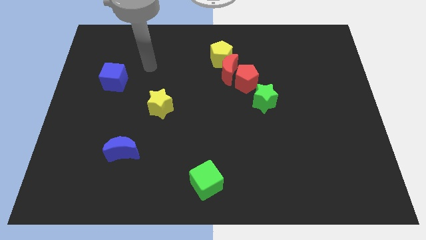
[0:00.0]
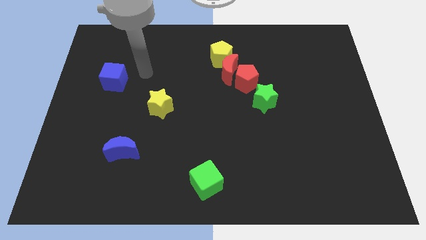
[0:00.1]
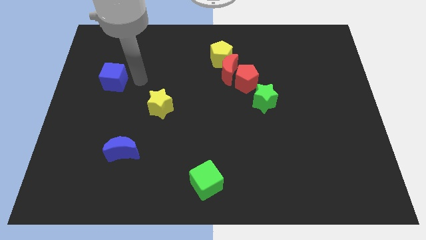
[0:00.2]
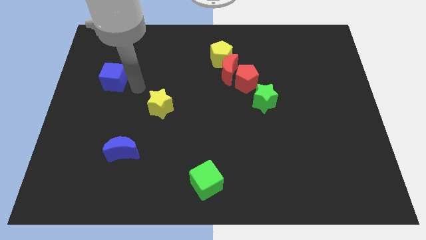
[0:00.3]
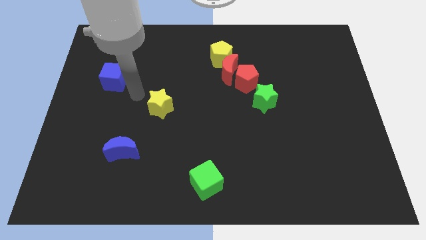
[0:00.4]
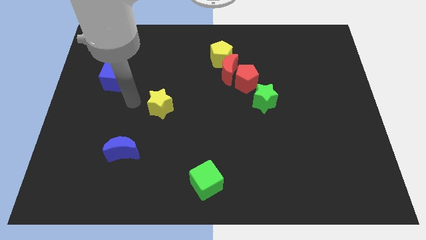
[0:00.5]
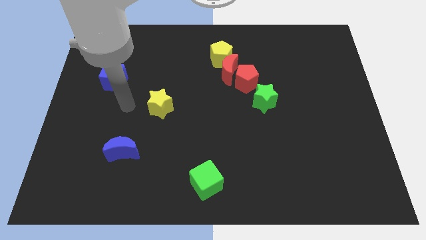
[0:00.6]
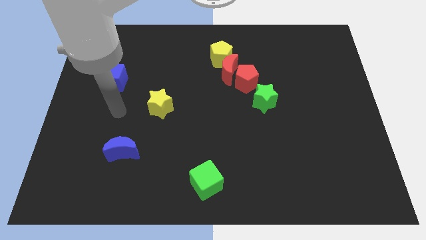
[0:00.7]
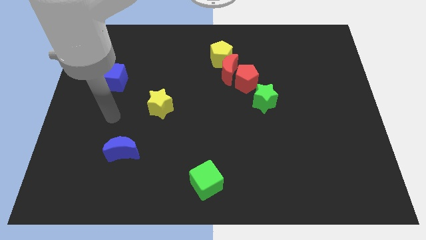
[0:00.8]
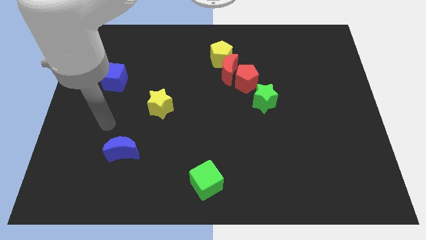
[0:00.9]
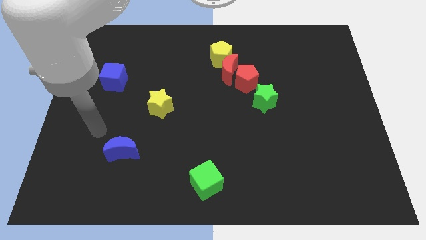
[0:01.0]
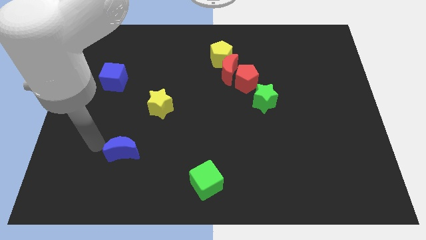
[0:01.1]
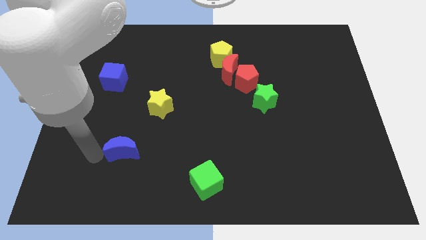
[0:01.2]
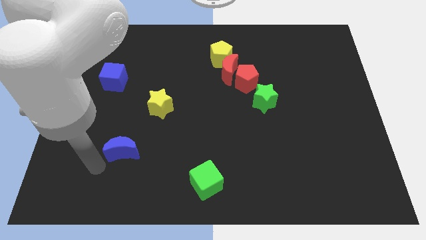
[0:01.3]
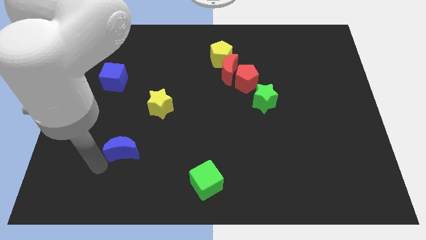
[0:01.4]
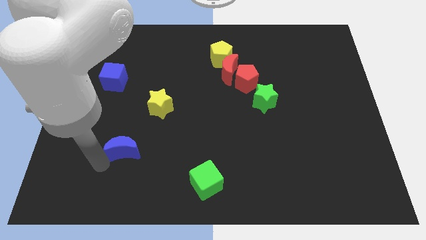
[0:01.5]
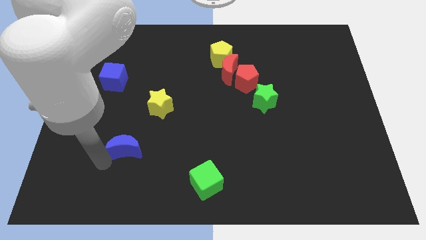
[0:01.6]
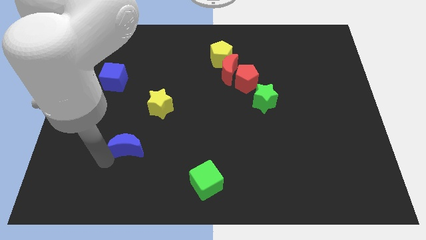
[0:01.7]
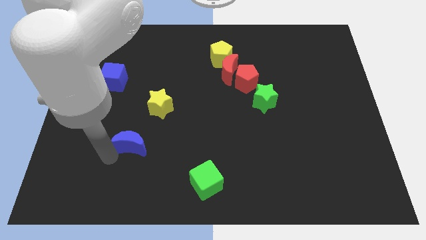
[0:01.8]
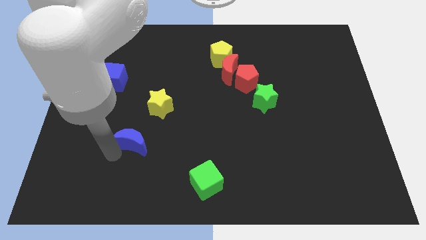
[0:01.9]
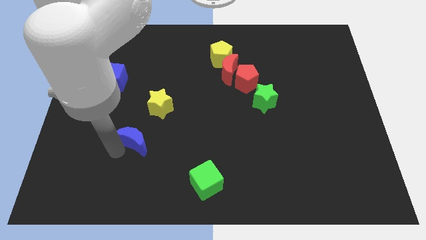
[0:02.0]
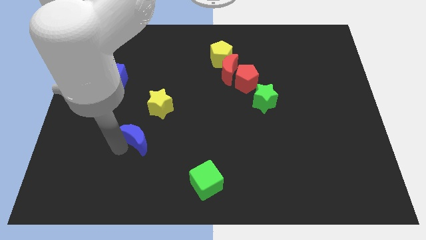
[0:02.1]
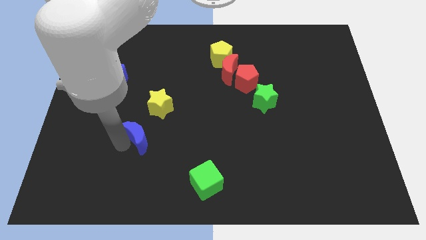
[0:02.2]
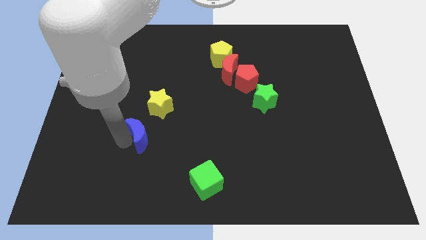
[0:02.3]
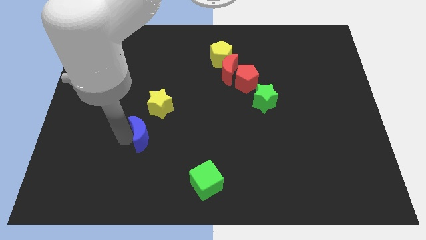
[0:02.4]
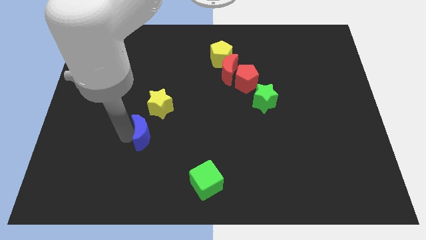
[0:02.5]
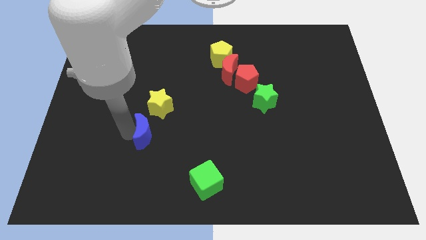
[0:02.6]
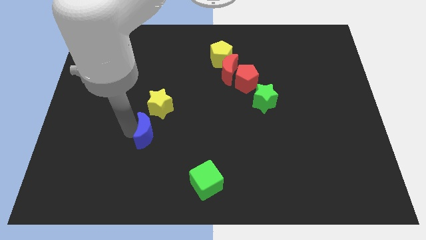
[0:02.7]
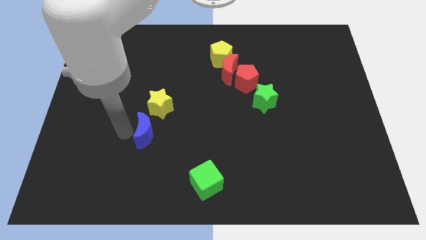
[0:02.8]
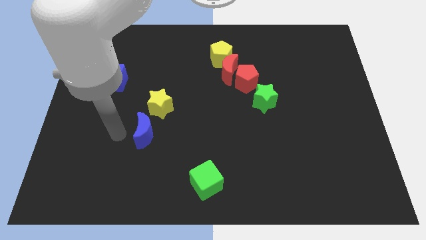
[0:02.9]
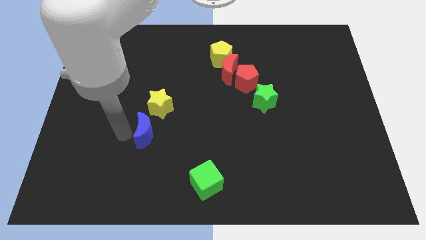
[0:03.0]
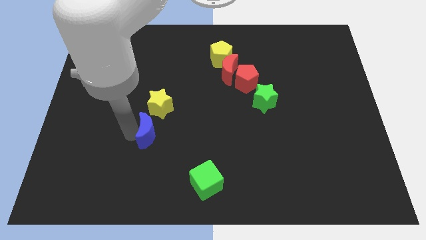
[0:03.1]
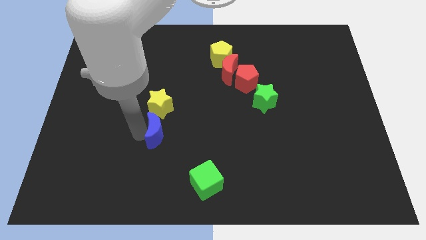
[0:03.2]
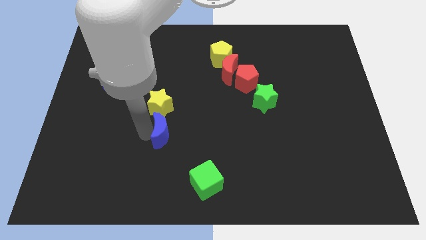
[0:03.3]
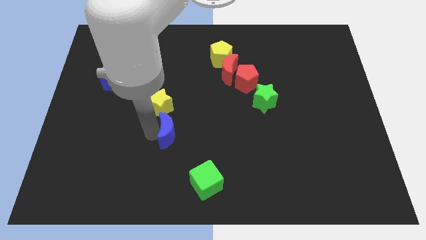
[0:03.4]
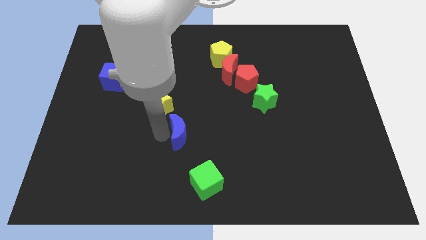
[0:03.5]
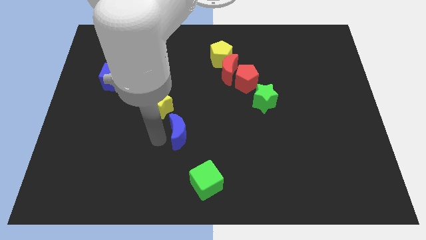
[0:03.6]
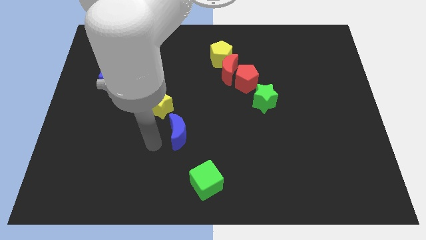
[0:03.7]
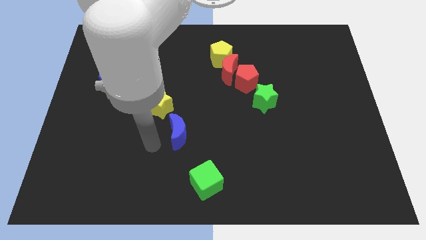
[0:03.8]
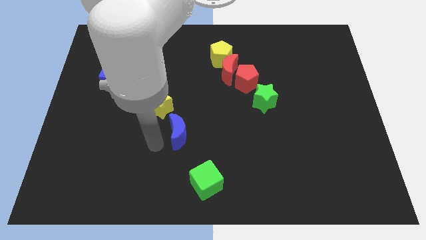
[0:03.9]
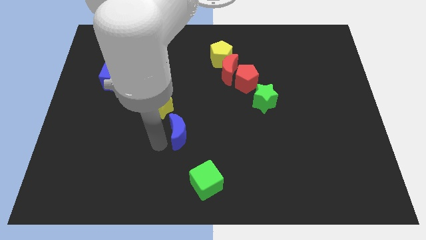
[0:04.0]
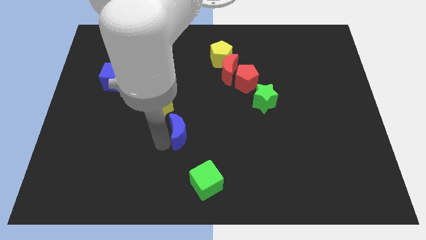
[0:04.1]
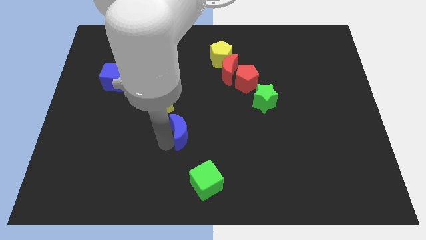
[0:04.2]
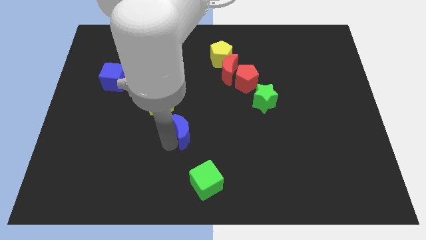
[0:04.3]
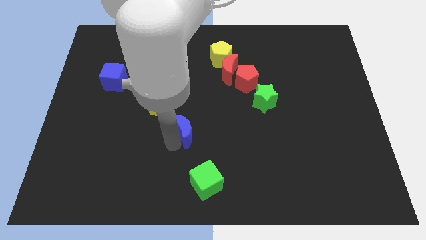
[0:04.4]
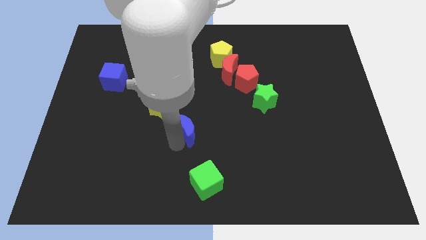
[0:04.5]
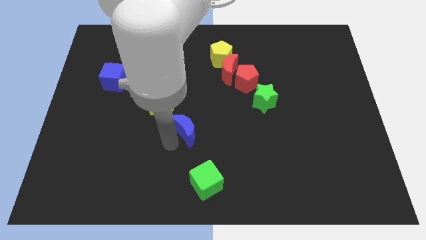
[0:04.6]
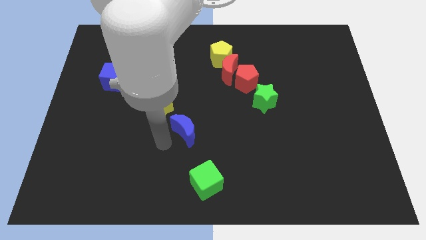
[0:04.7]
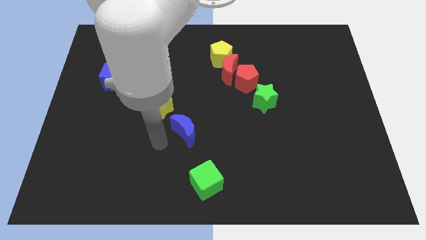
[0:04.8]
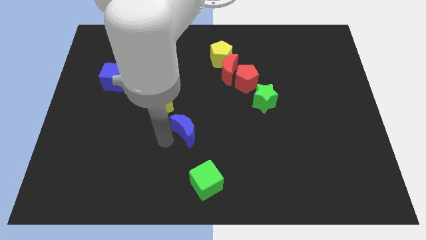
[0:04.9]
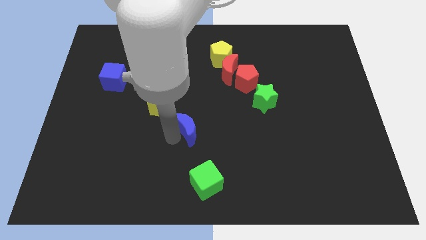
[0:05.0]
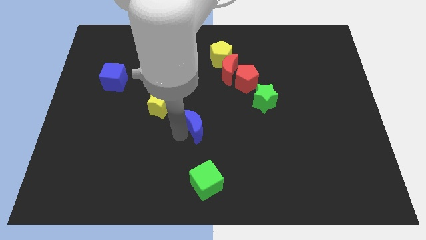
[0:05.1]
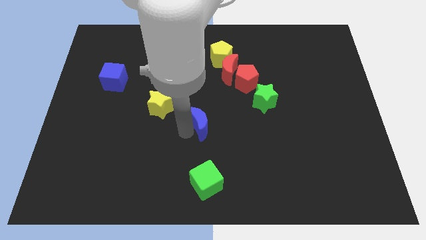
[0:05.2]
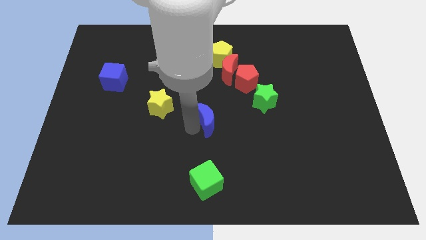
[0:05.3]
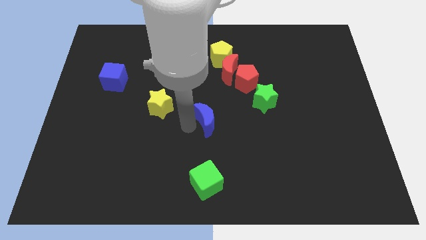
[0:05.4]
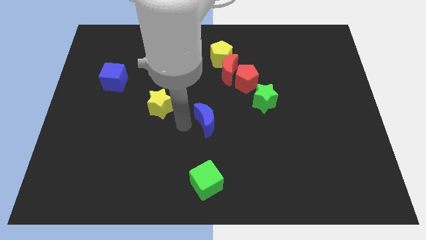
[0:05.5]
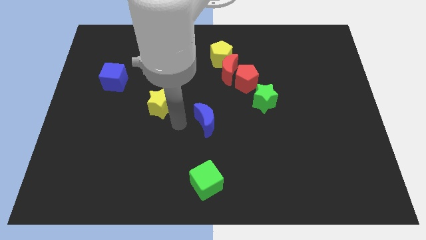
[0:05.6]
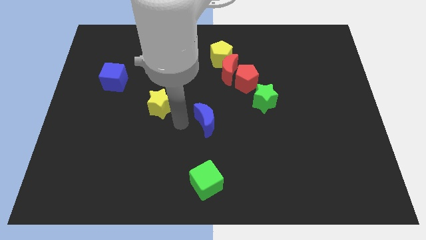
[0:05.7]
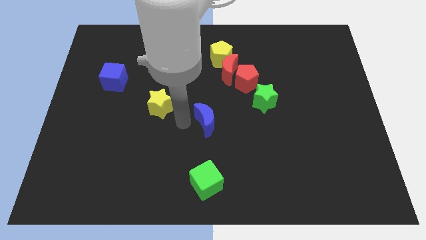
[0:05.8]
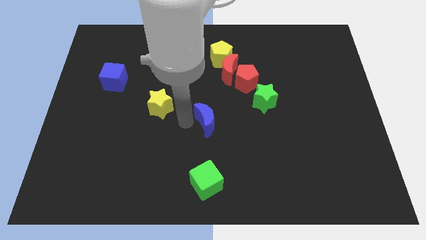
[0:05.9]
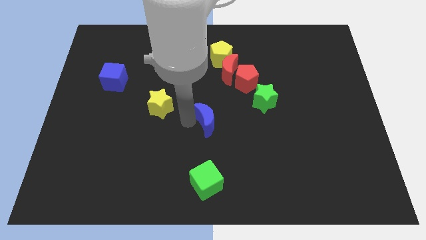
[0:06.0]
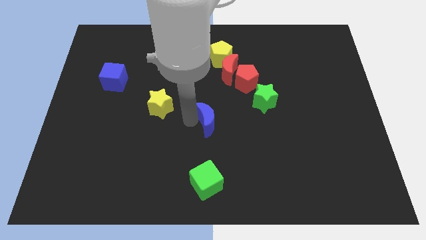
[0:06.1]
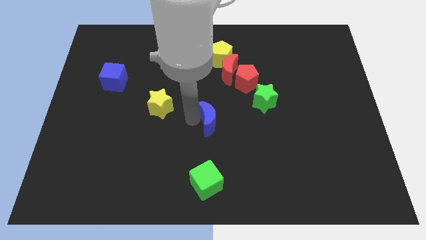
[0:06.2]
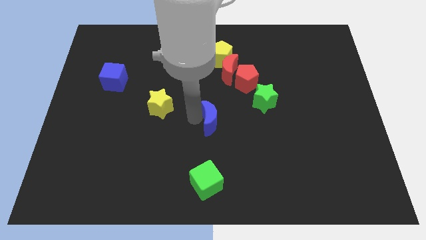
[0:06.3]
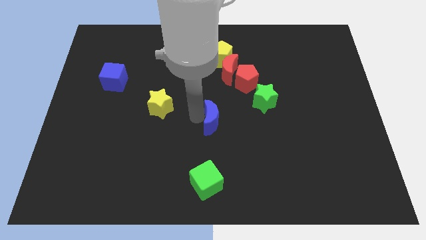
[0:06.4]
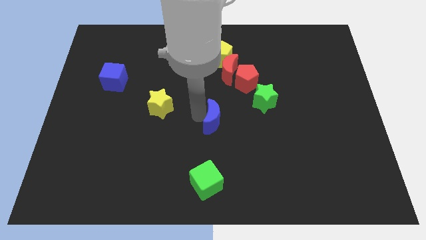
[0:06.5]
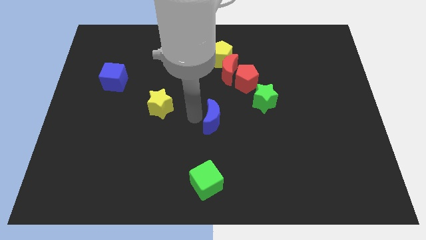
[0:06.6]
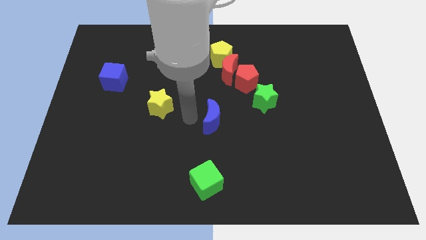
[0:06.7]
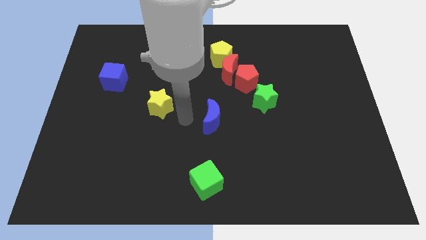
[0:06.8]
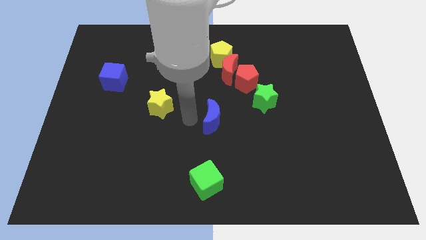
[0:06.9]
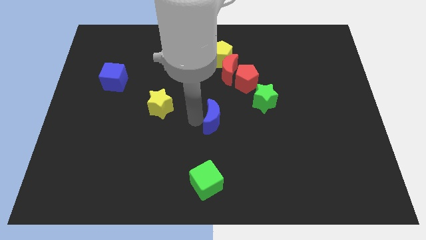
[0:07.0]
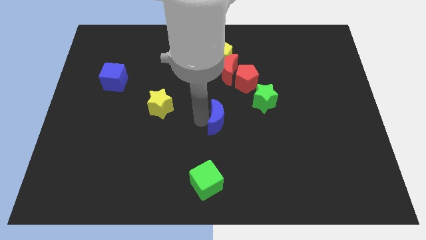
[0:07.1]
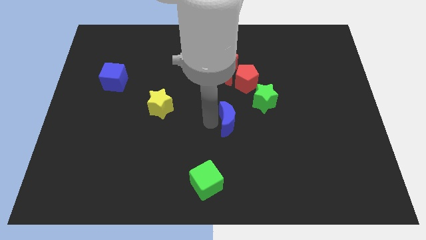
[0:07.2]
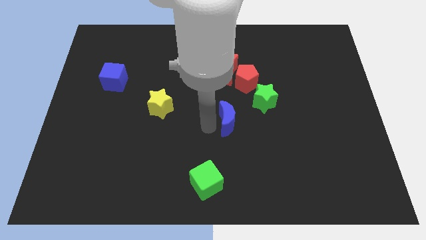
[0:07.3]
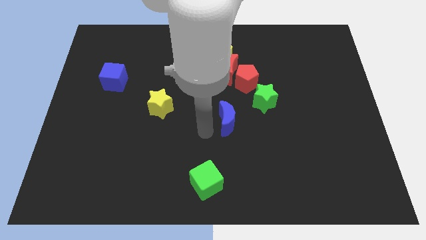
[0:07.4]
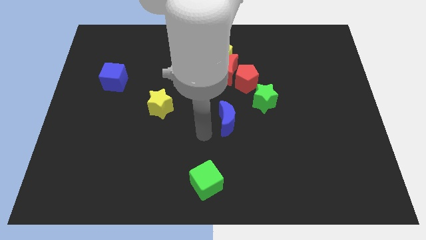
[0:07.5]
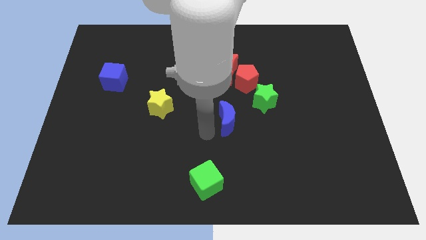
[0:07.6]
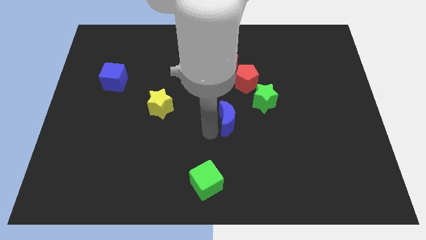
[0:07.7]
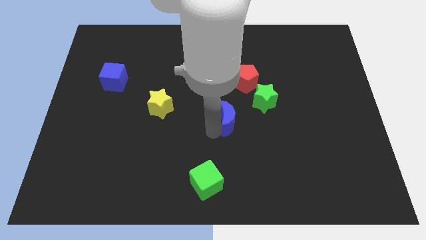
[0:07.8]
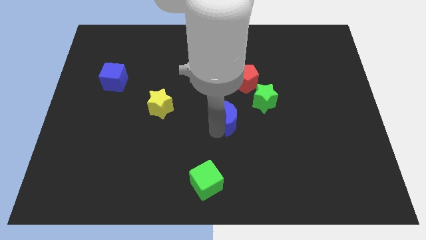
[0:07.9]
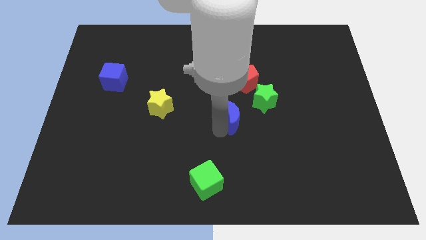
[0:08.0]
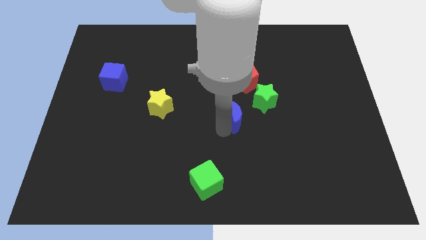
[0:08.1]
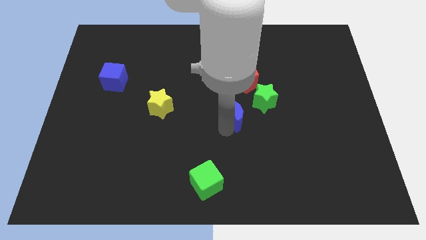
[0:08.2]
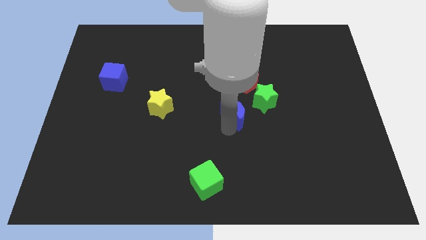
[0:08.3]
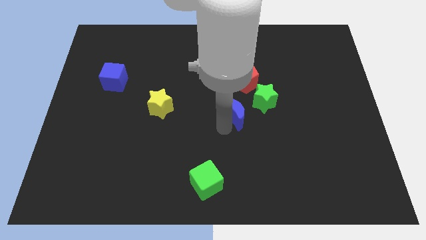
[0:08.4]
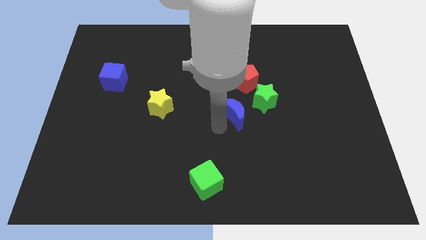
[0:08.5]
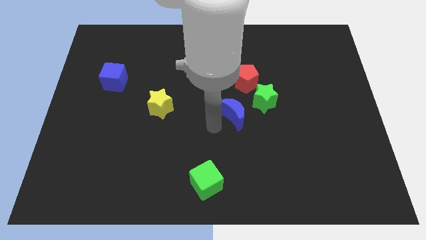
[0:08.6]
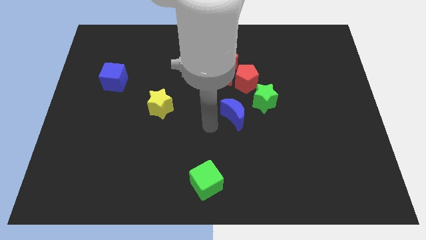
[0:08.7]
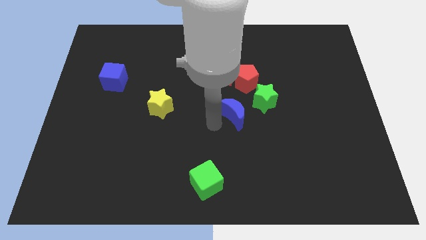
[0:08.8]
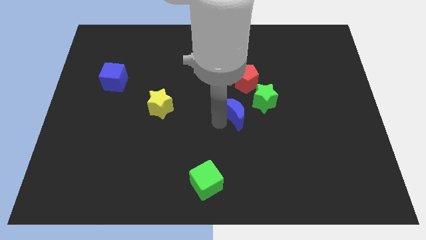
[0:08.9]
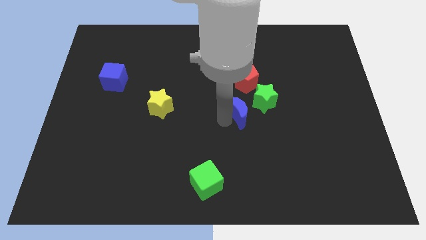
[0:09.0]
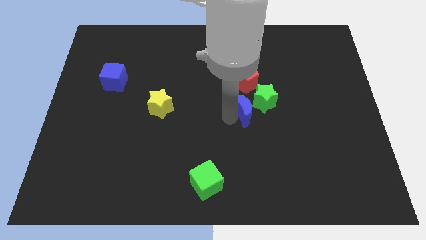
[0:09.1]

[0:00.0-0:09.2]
move the blue moon close to the green star
